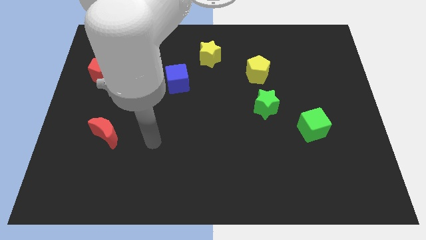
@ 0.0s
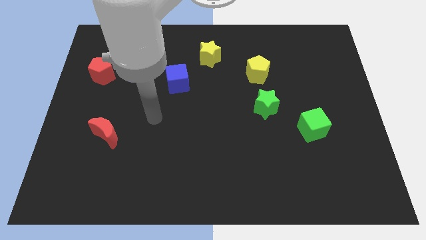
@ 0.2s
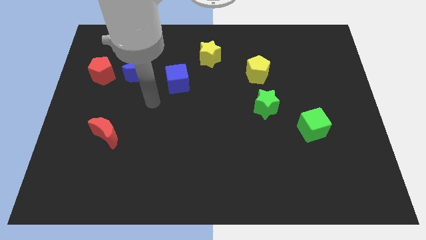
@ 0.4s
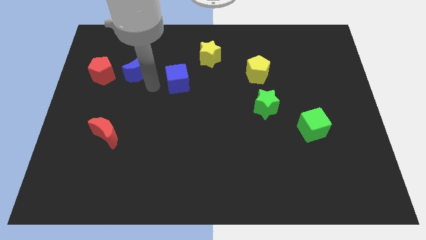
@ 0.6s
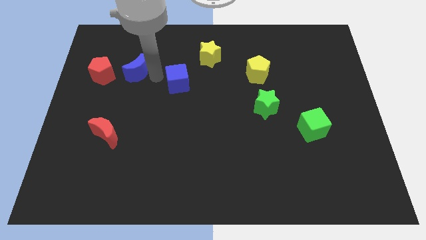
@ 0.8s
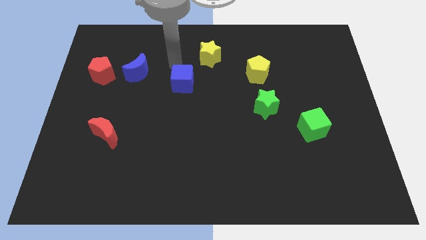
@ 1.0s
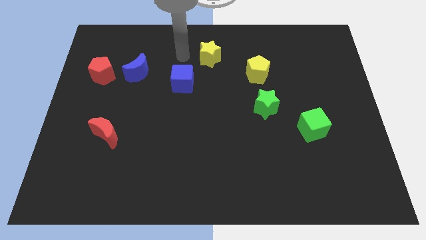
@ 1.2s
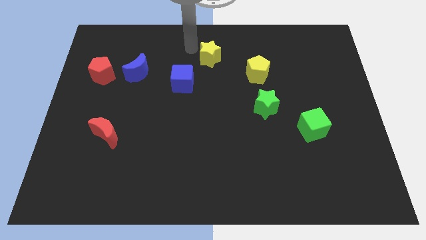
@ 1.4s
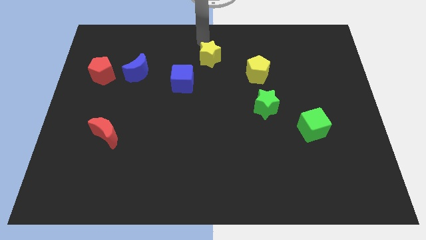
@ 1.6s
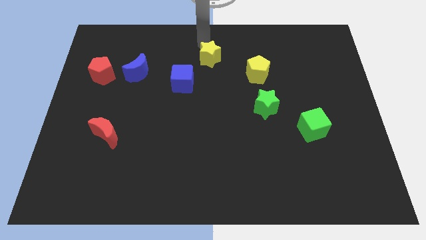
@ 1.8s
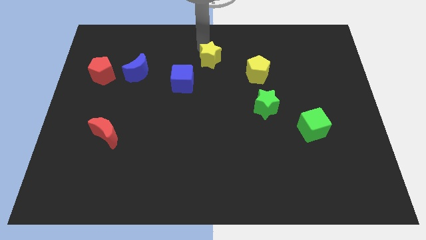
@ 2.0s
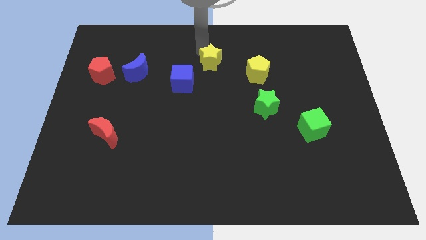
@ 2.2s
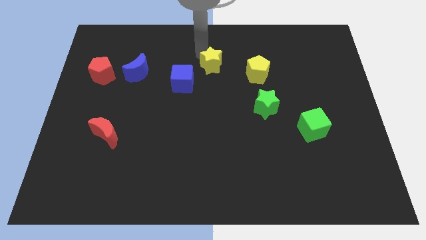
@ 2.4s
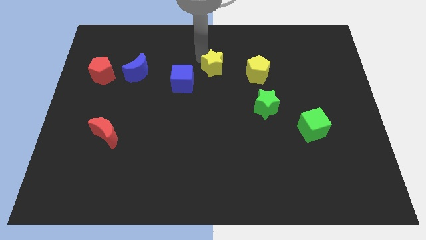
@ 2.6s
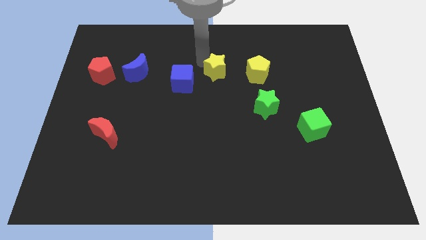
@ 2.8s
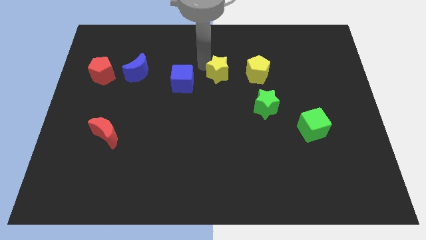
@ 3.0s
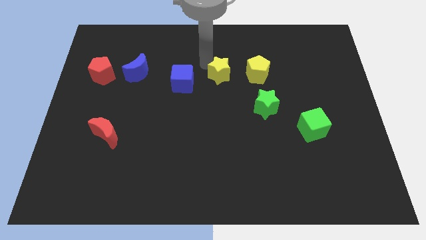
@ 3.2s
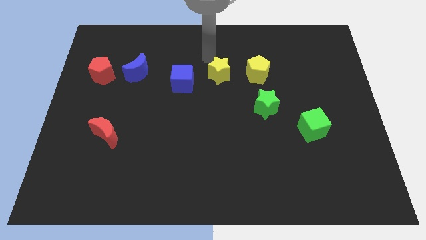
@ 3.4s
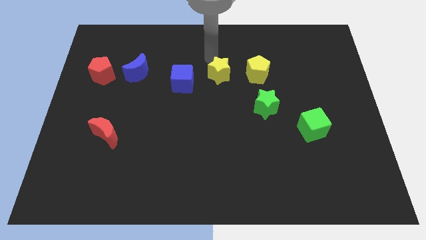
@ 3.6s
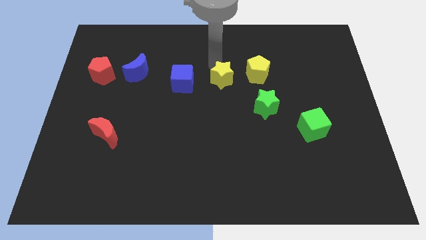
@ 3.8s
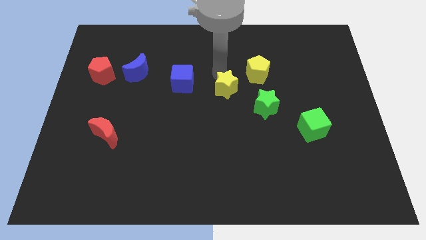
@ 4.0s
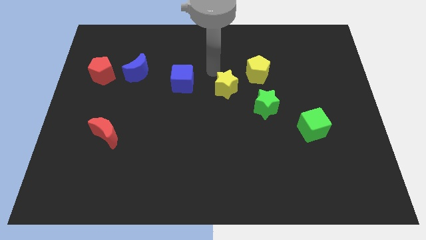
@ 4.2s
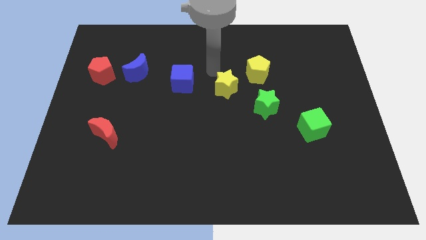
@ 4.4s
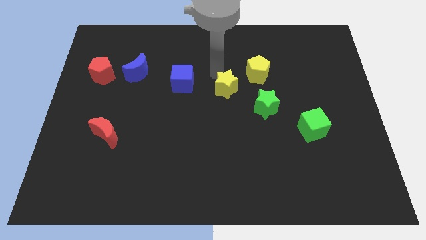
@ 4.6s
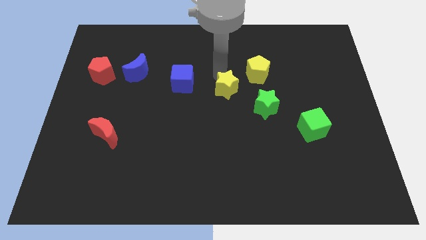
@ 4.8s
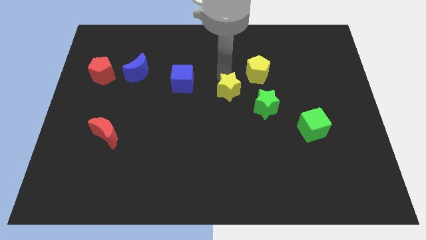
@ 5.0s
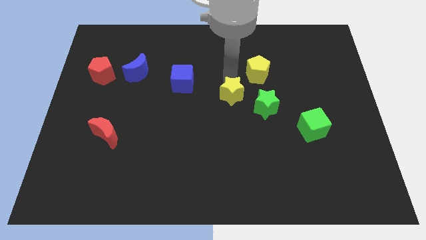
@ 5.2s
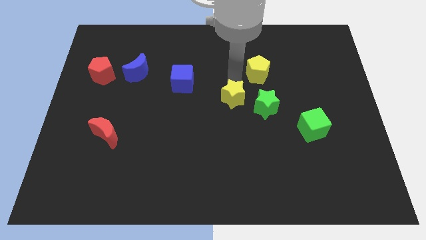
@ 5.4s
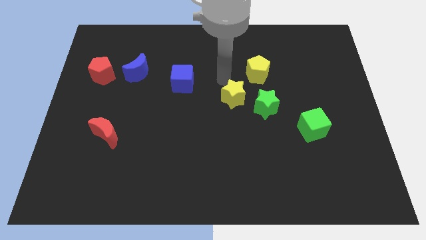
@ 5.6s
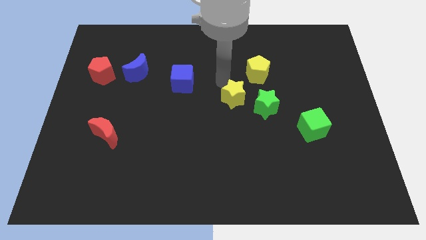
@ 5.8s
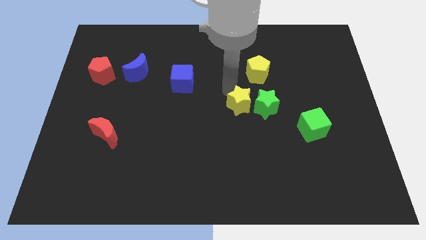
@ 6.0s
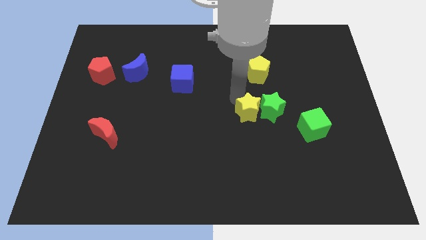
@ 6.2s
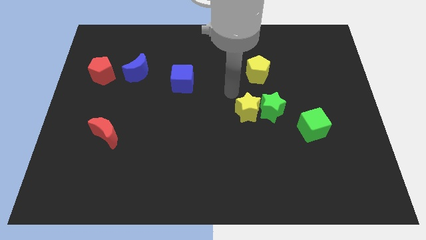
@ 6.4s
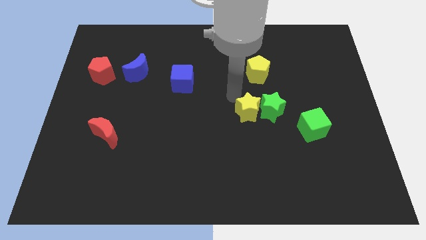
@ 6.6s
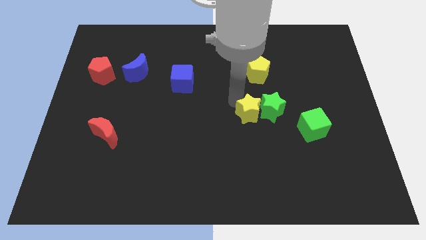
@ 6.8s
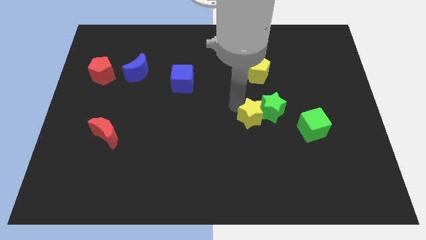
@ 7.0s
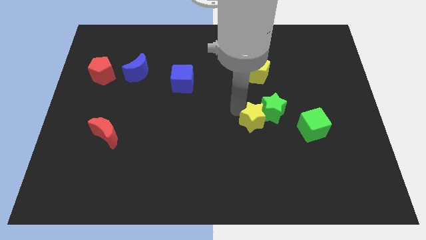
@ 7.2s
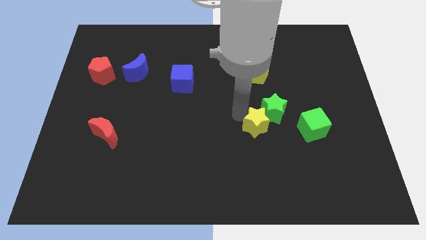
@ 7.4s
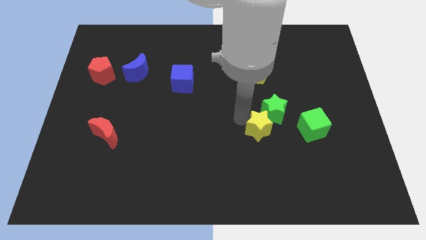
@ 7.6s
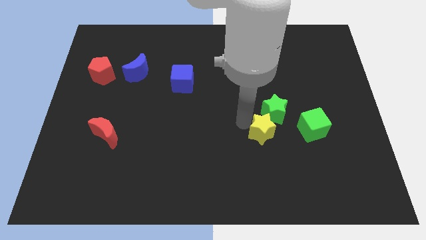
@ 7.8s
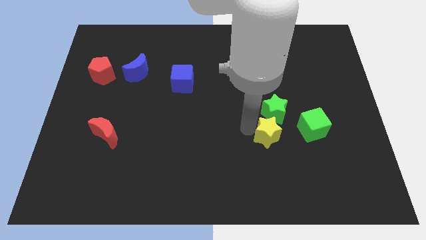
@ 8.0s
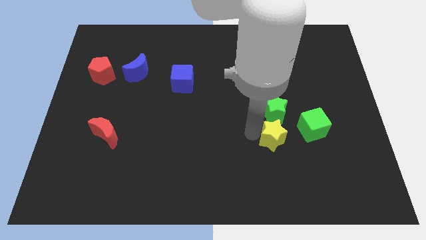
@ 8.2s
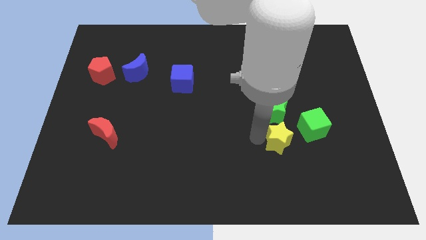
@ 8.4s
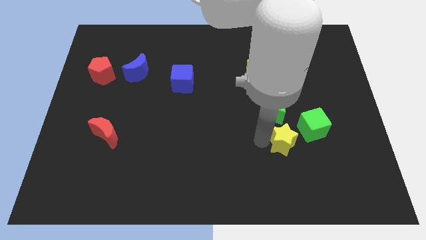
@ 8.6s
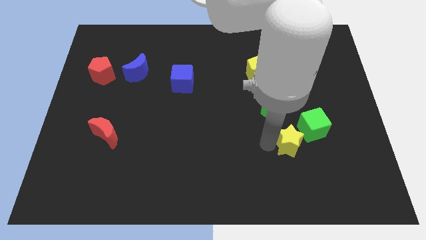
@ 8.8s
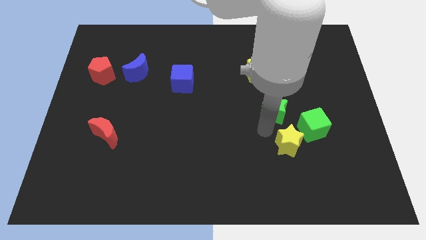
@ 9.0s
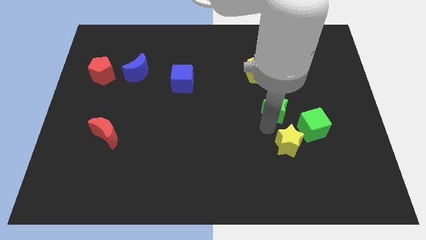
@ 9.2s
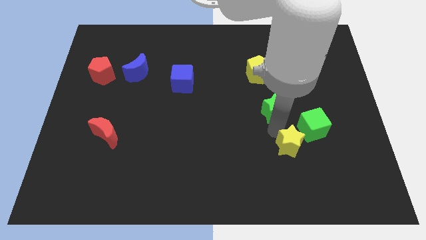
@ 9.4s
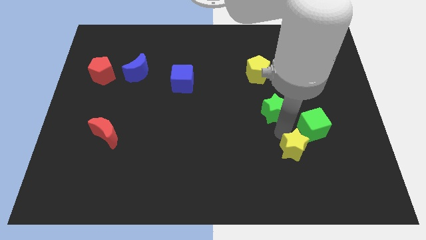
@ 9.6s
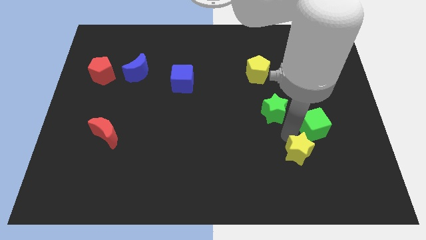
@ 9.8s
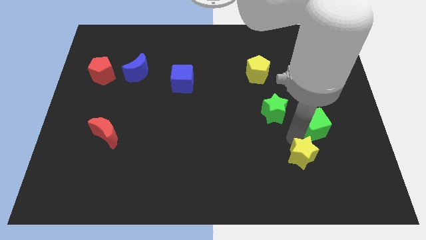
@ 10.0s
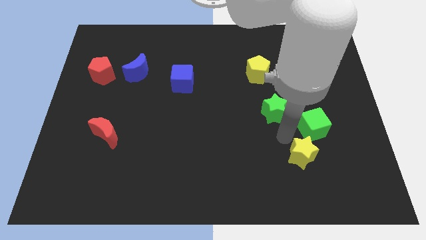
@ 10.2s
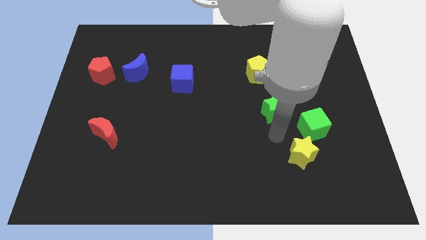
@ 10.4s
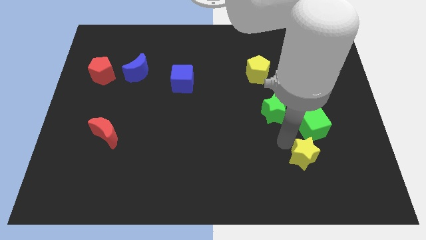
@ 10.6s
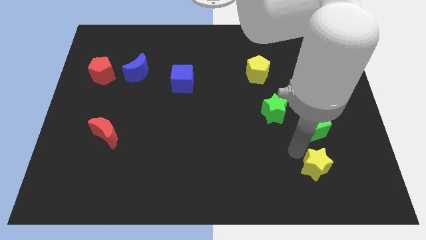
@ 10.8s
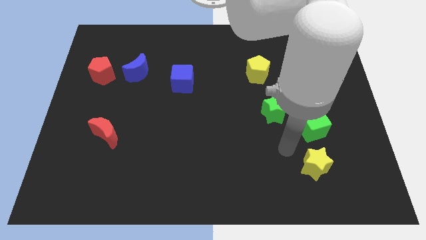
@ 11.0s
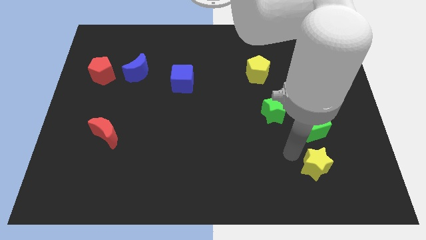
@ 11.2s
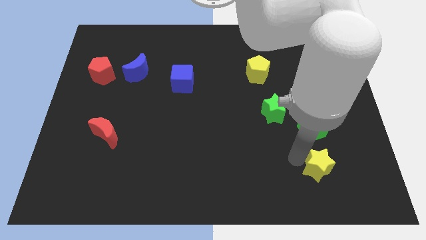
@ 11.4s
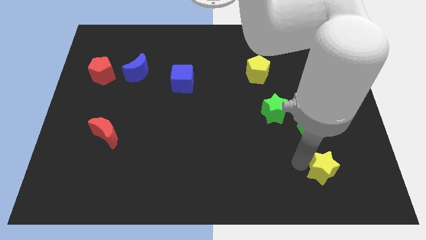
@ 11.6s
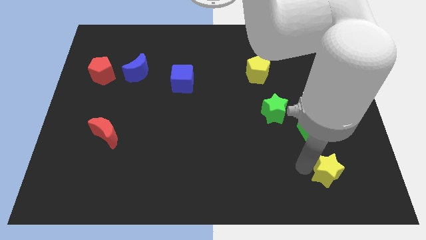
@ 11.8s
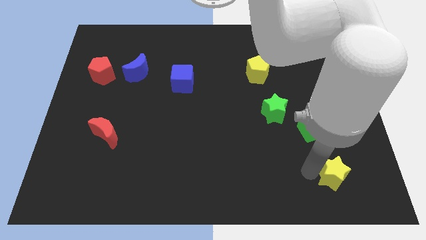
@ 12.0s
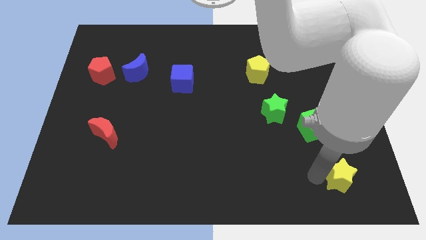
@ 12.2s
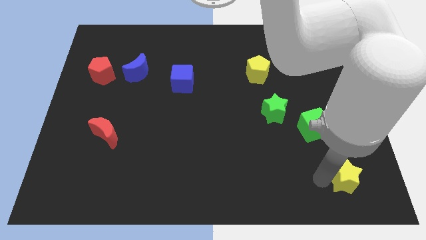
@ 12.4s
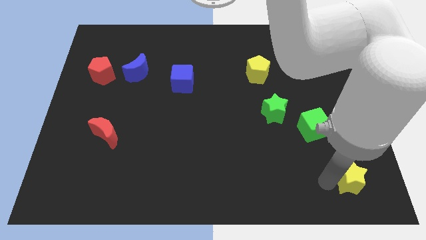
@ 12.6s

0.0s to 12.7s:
put the yellow star to the bottom right corner

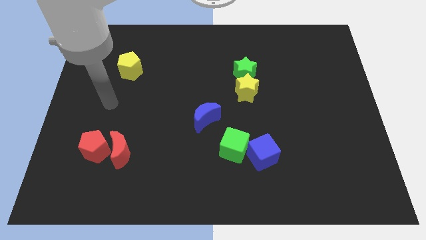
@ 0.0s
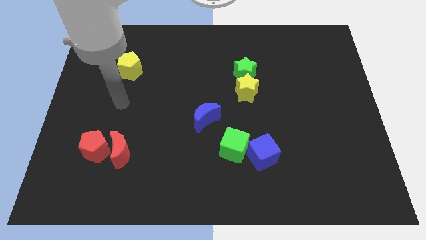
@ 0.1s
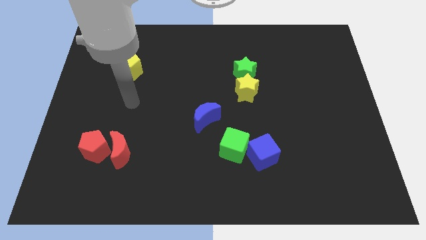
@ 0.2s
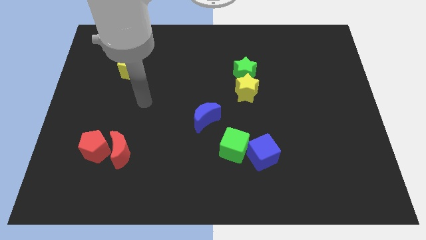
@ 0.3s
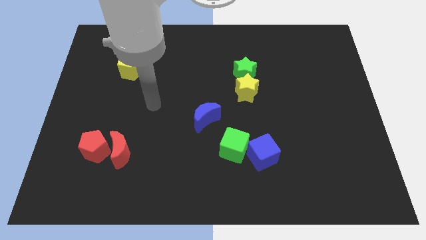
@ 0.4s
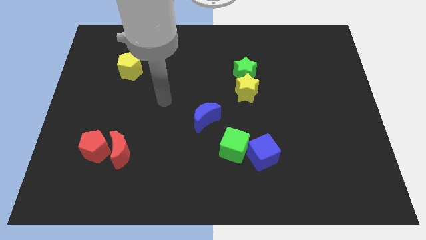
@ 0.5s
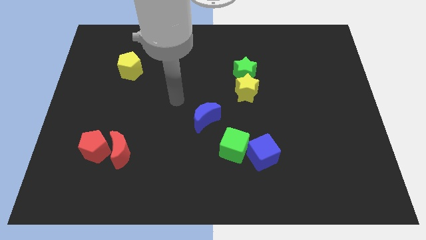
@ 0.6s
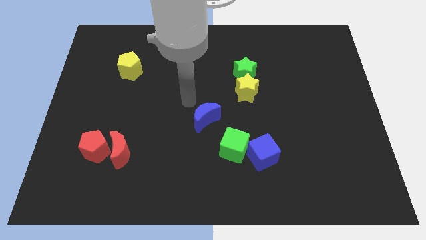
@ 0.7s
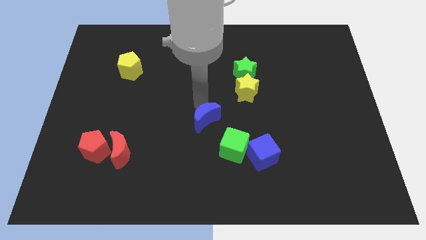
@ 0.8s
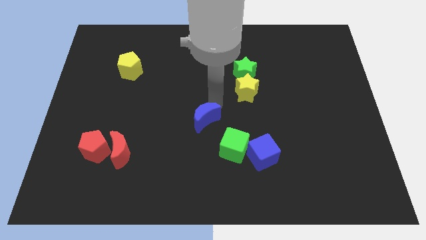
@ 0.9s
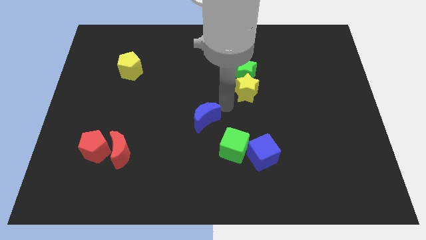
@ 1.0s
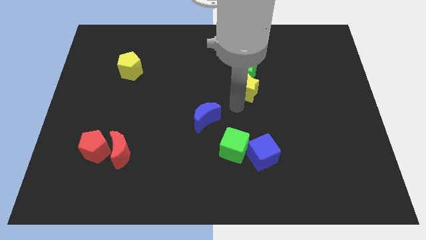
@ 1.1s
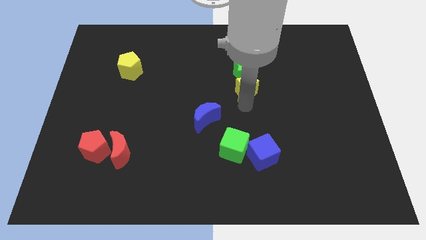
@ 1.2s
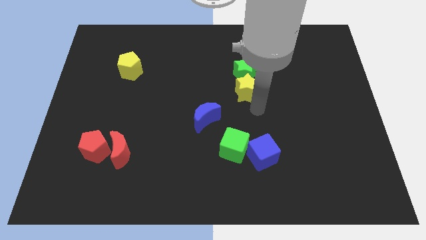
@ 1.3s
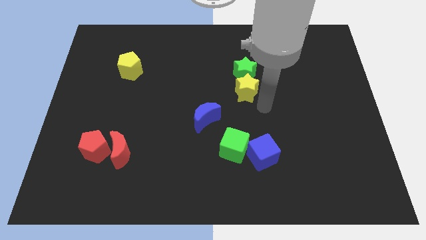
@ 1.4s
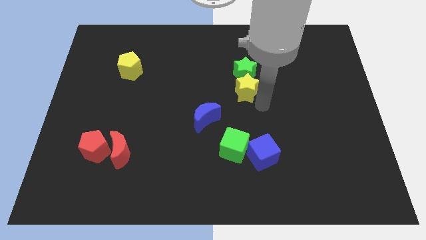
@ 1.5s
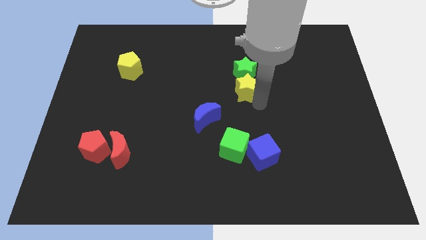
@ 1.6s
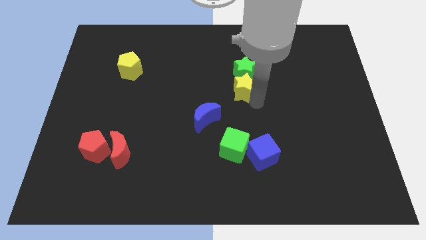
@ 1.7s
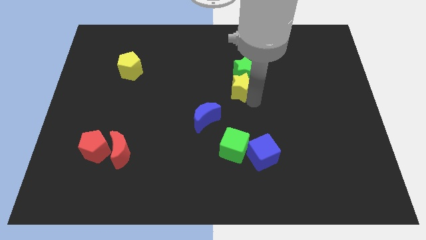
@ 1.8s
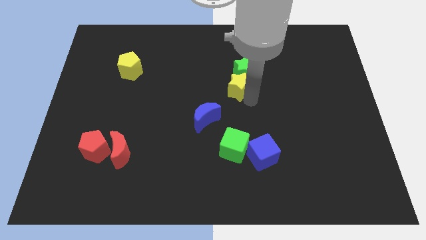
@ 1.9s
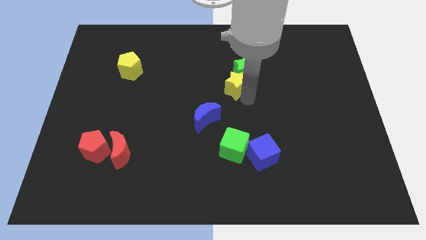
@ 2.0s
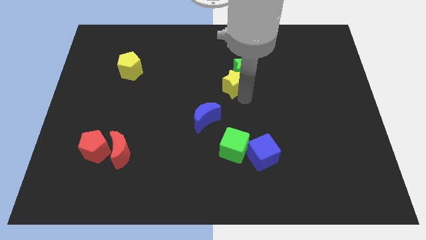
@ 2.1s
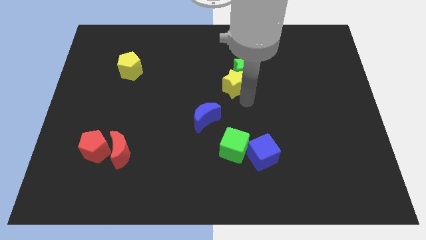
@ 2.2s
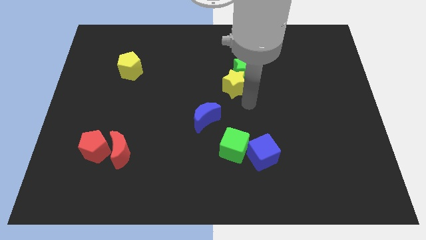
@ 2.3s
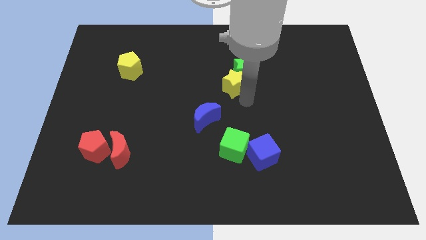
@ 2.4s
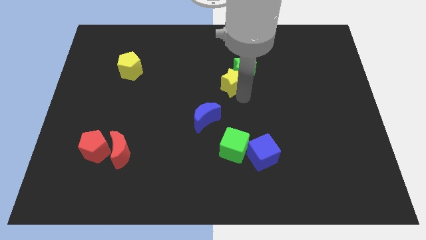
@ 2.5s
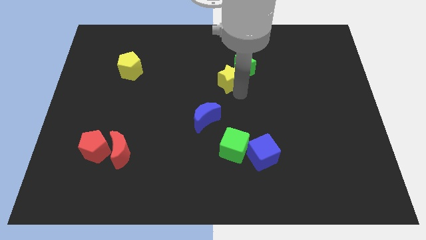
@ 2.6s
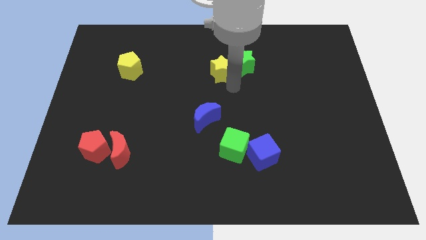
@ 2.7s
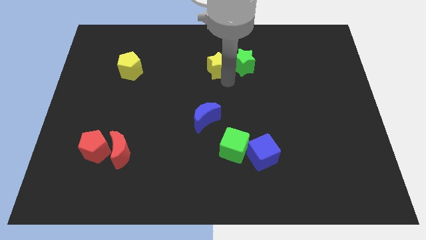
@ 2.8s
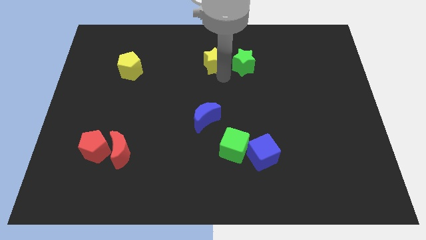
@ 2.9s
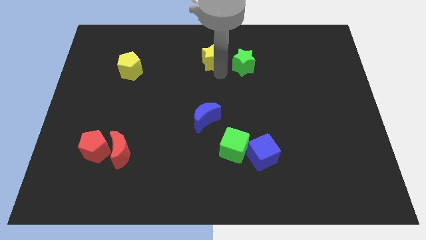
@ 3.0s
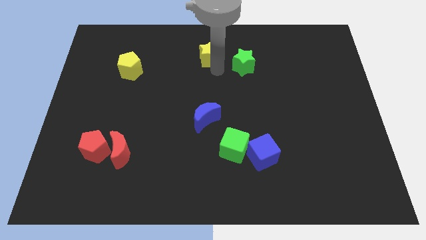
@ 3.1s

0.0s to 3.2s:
move the yellow star to the top side
